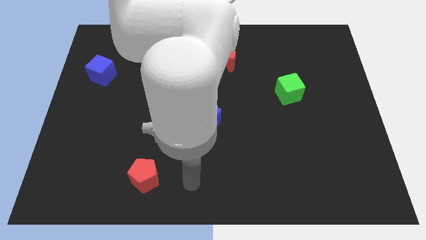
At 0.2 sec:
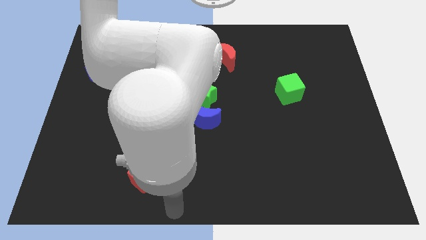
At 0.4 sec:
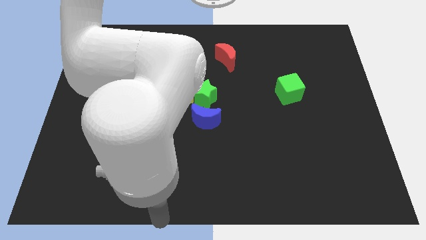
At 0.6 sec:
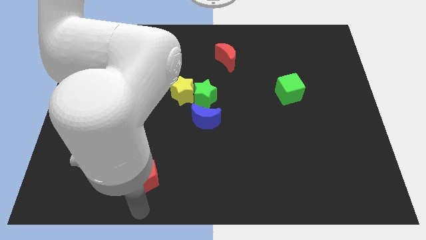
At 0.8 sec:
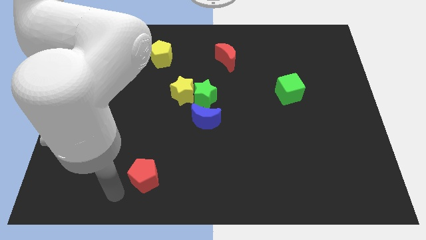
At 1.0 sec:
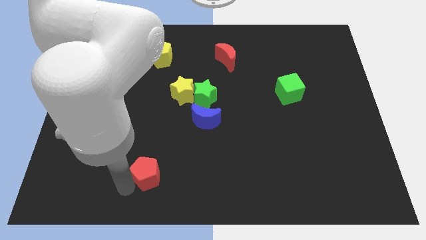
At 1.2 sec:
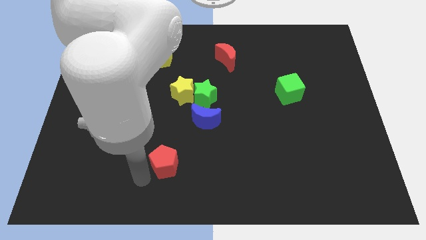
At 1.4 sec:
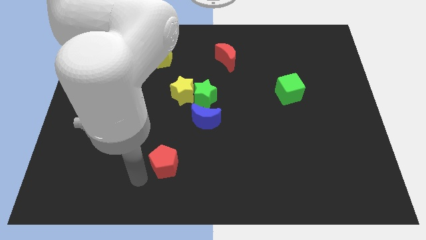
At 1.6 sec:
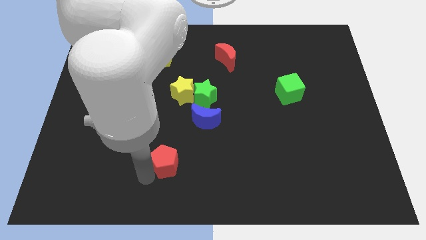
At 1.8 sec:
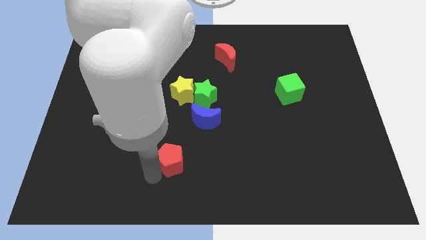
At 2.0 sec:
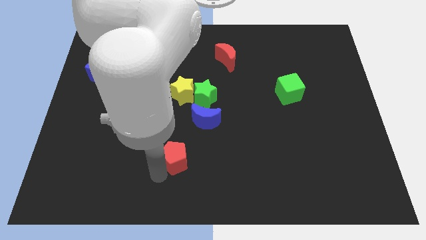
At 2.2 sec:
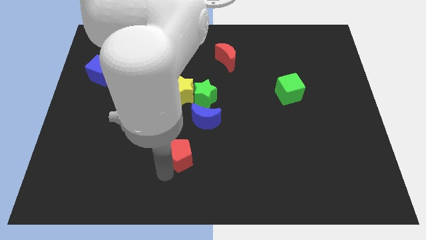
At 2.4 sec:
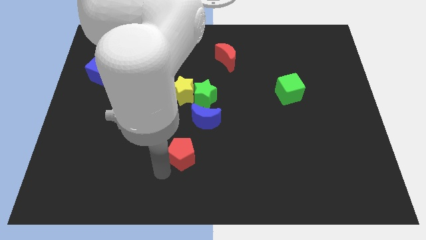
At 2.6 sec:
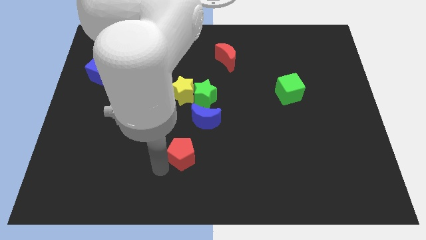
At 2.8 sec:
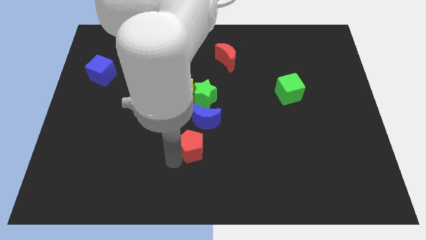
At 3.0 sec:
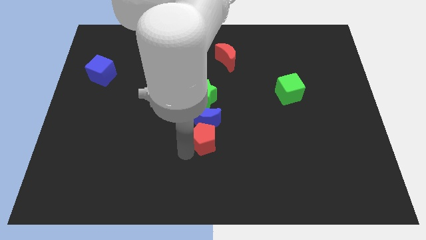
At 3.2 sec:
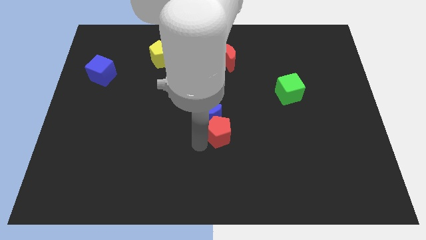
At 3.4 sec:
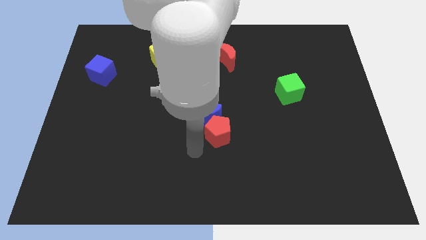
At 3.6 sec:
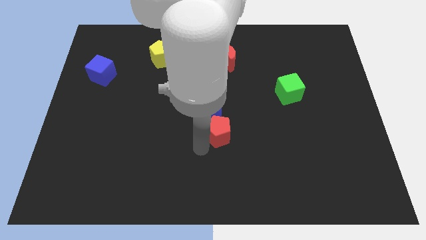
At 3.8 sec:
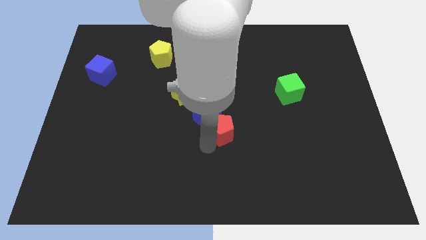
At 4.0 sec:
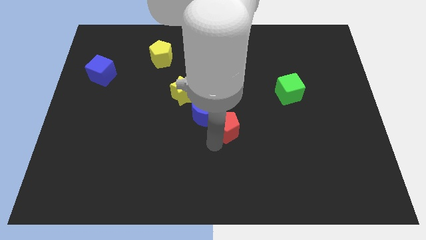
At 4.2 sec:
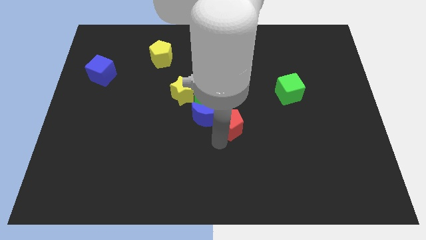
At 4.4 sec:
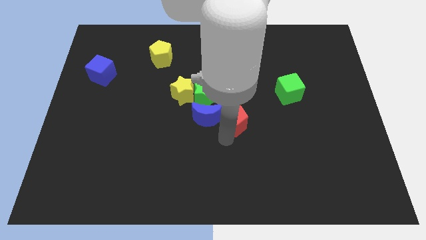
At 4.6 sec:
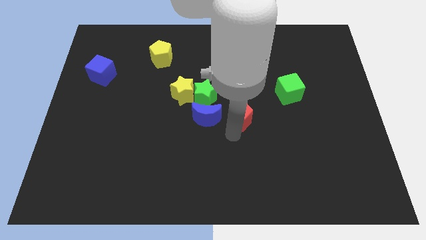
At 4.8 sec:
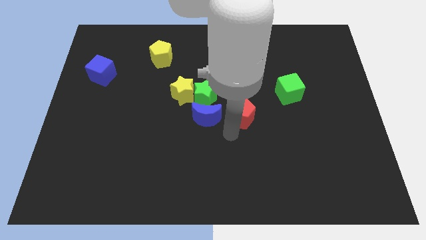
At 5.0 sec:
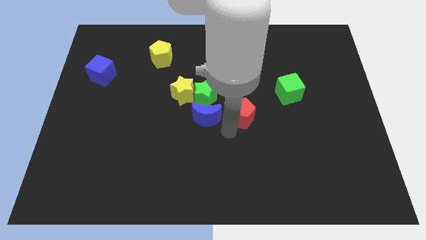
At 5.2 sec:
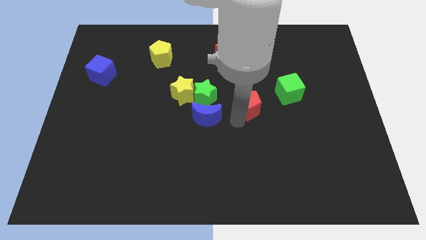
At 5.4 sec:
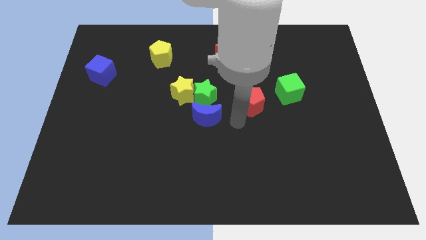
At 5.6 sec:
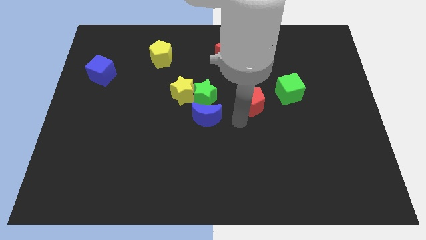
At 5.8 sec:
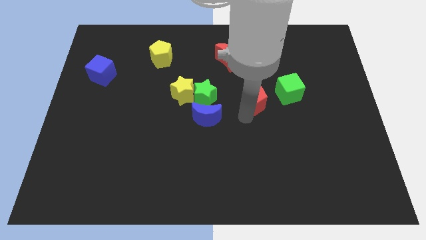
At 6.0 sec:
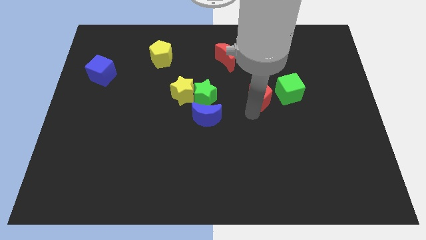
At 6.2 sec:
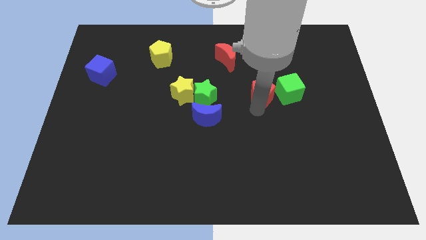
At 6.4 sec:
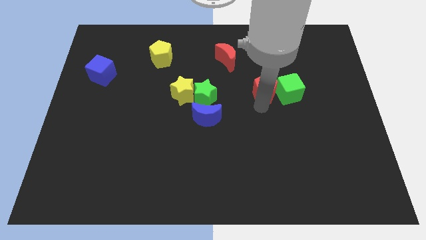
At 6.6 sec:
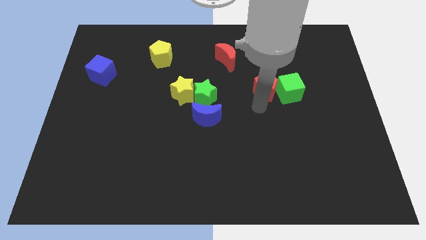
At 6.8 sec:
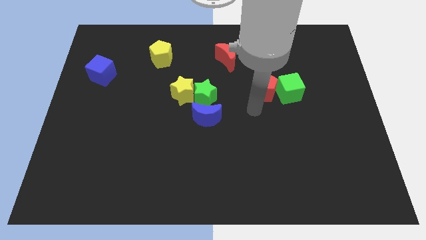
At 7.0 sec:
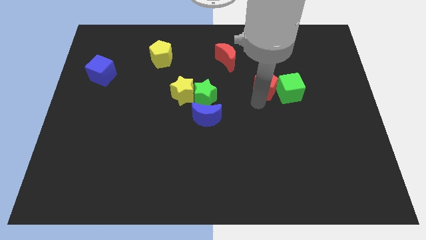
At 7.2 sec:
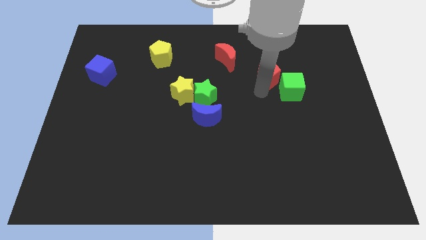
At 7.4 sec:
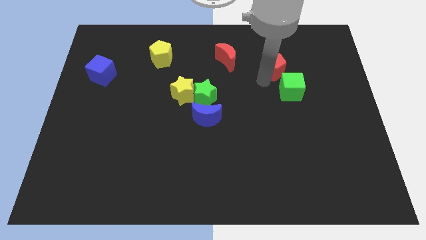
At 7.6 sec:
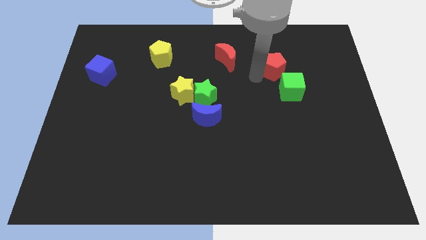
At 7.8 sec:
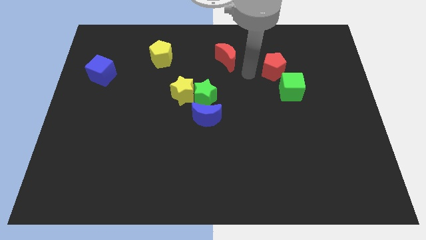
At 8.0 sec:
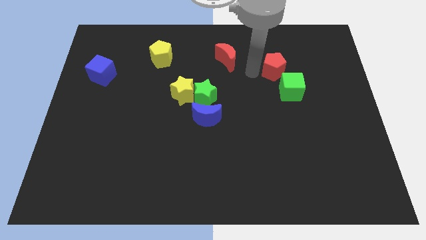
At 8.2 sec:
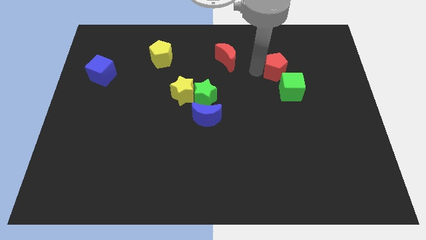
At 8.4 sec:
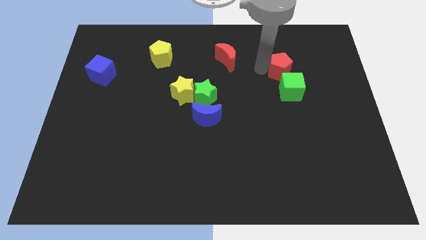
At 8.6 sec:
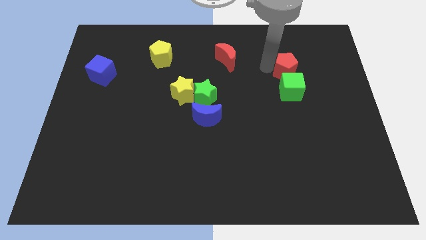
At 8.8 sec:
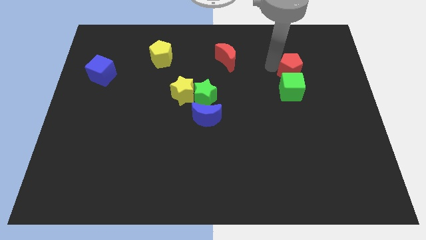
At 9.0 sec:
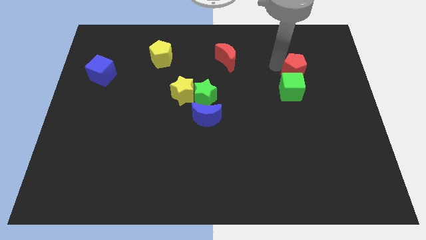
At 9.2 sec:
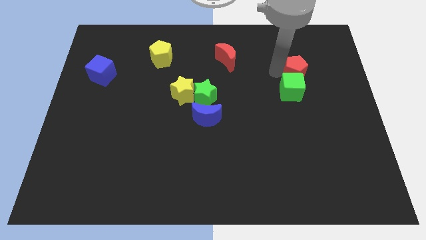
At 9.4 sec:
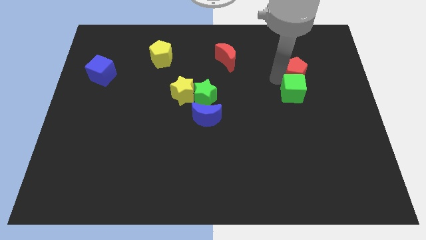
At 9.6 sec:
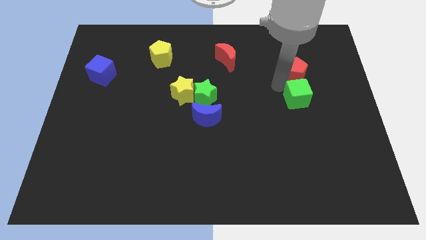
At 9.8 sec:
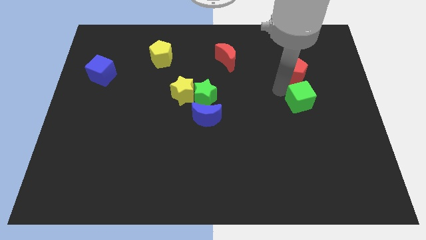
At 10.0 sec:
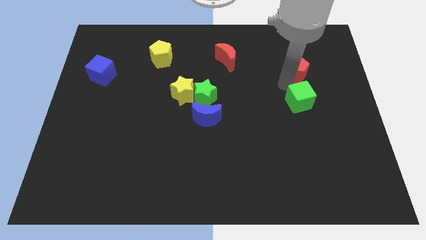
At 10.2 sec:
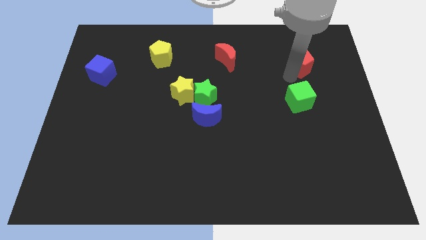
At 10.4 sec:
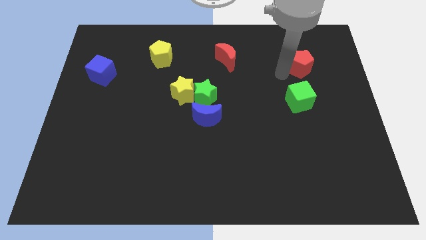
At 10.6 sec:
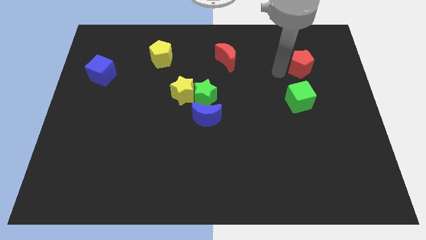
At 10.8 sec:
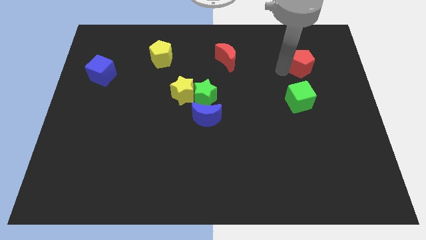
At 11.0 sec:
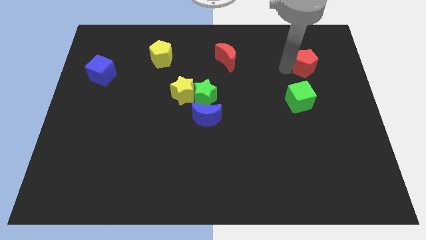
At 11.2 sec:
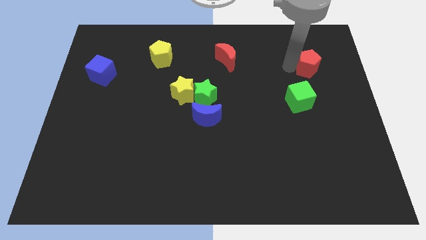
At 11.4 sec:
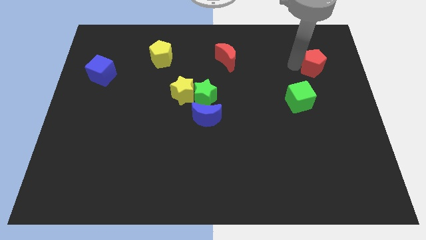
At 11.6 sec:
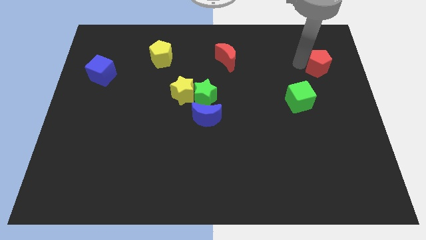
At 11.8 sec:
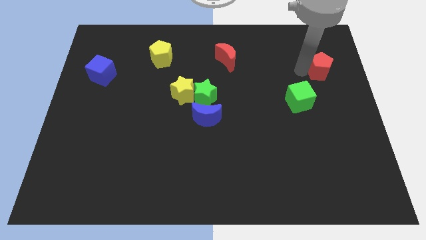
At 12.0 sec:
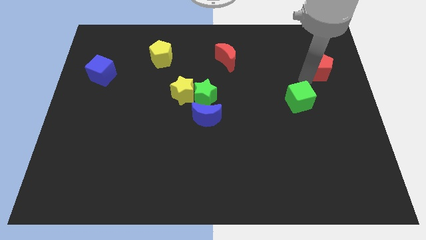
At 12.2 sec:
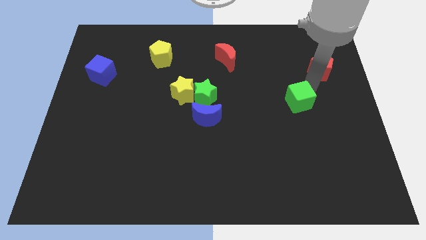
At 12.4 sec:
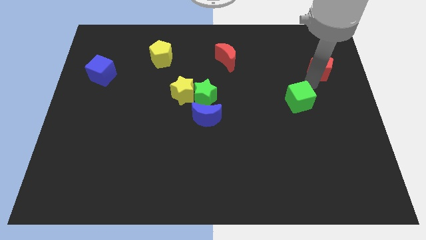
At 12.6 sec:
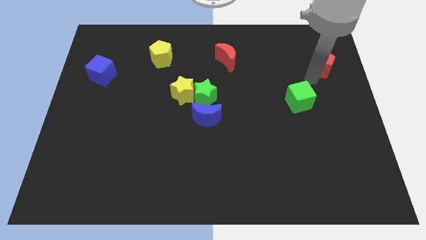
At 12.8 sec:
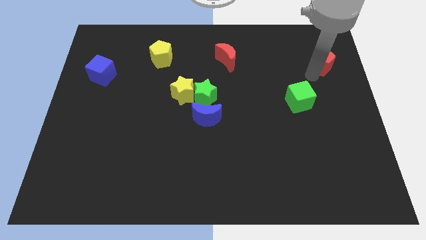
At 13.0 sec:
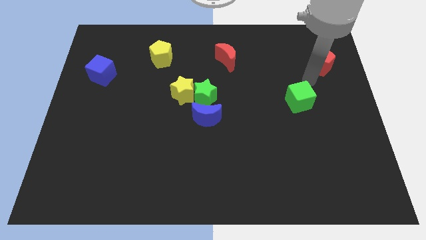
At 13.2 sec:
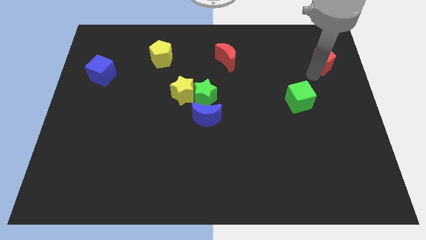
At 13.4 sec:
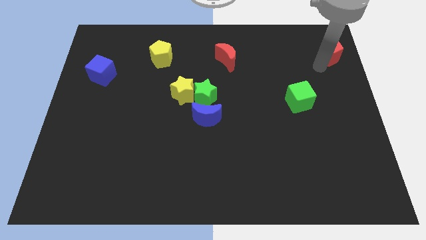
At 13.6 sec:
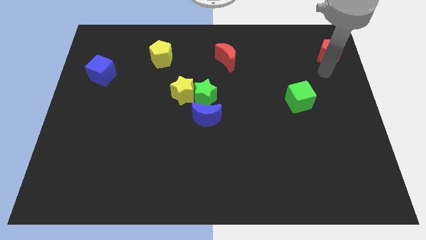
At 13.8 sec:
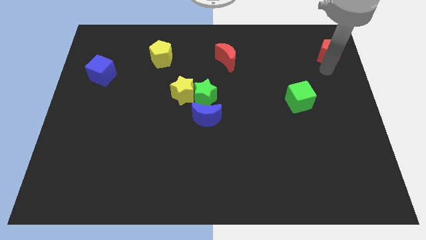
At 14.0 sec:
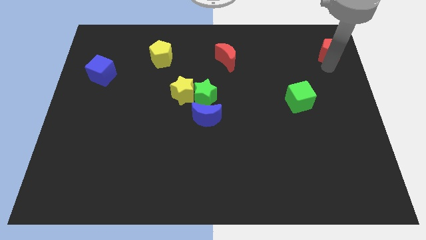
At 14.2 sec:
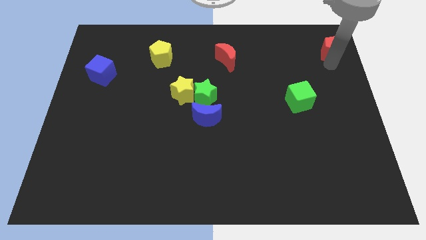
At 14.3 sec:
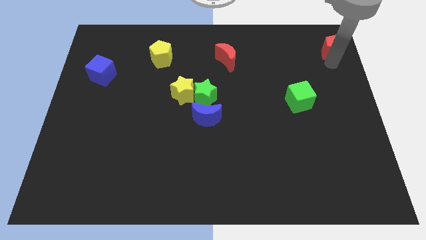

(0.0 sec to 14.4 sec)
put the red pentagon to the top right
